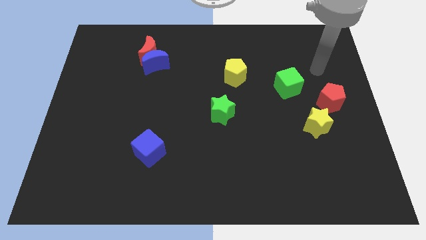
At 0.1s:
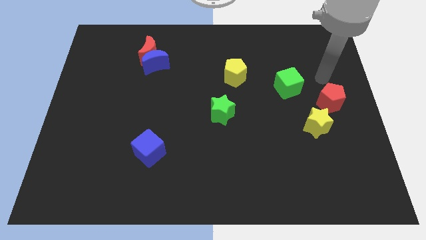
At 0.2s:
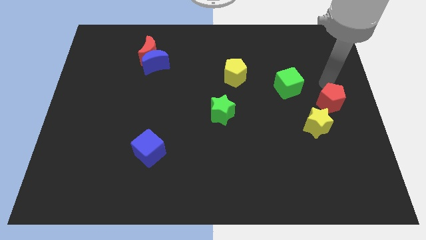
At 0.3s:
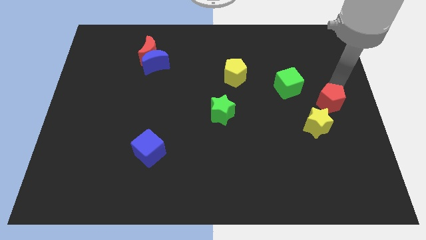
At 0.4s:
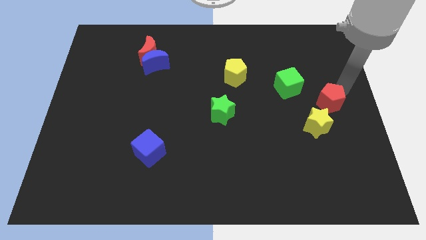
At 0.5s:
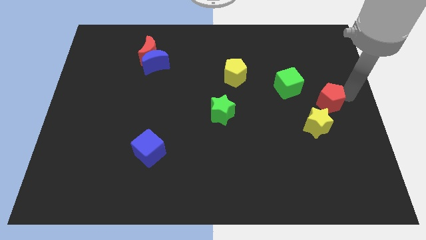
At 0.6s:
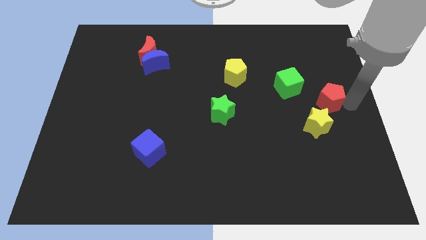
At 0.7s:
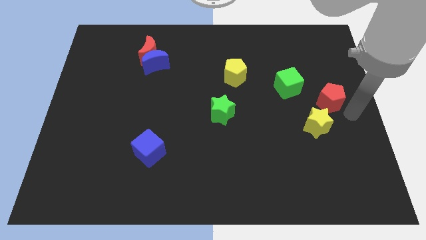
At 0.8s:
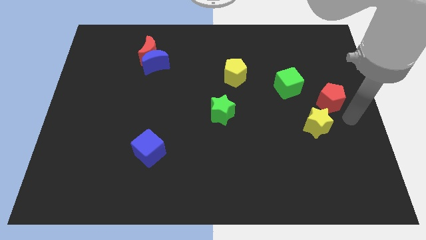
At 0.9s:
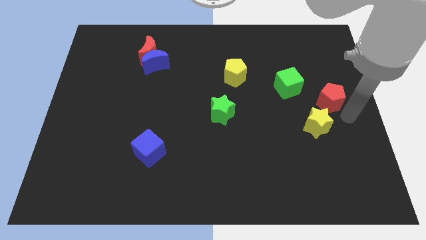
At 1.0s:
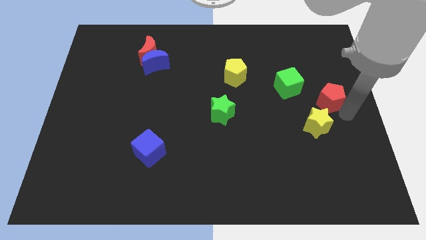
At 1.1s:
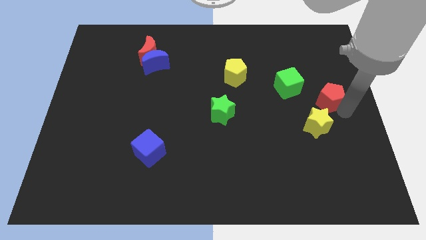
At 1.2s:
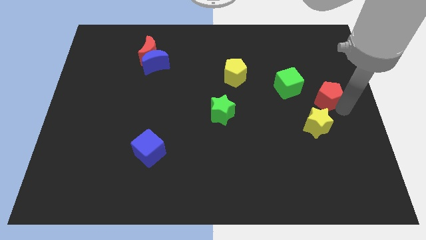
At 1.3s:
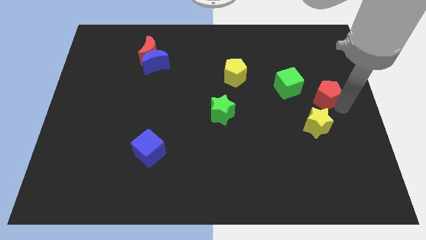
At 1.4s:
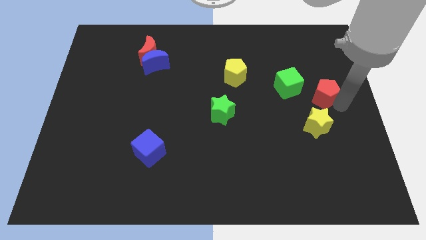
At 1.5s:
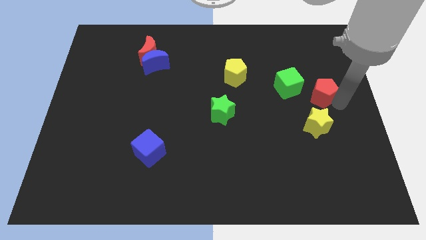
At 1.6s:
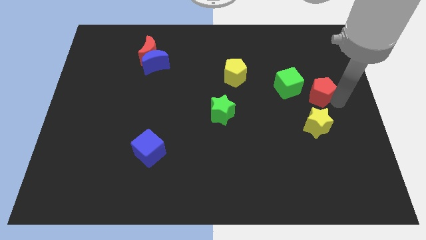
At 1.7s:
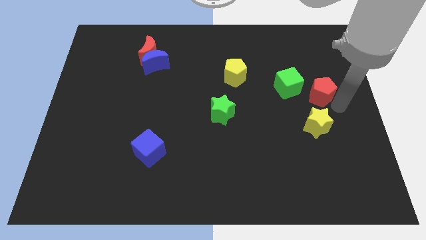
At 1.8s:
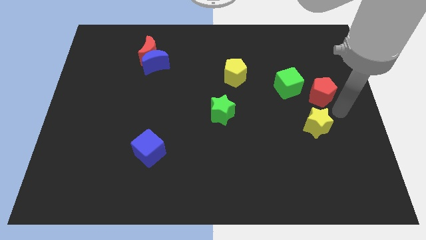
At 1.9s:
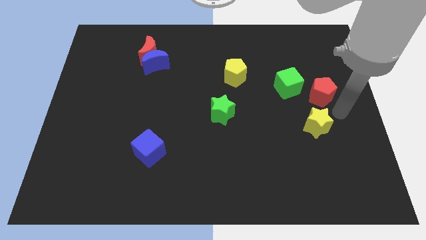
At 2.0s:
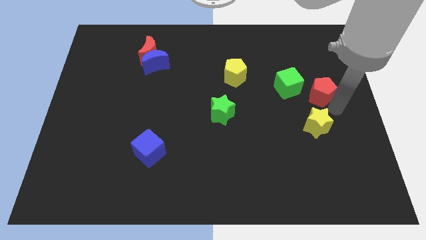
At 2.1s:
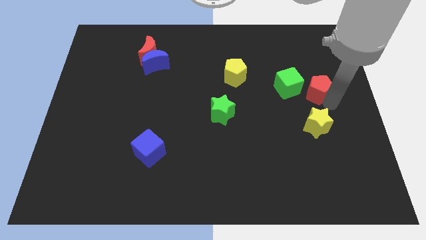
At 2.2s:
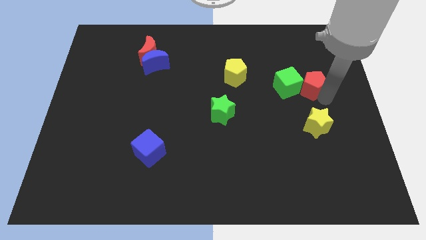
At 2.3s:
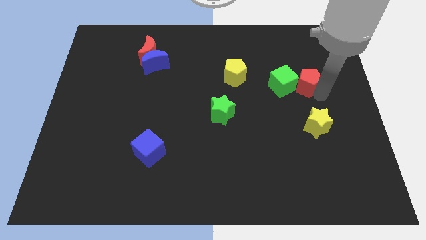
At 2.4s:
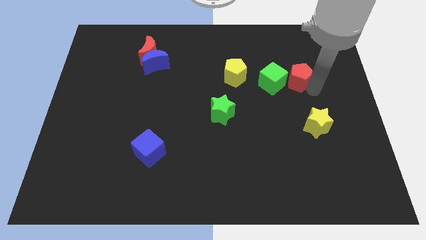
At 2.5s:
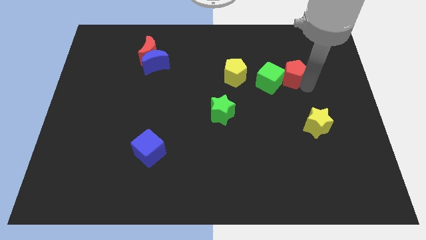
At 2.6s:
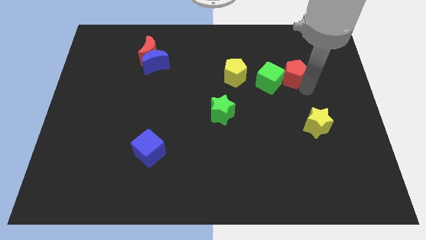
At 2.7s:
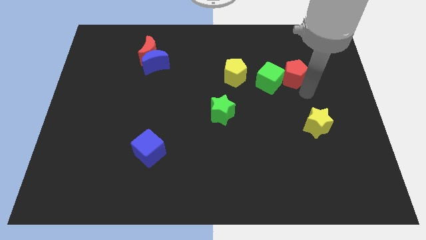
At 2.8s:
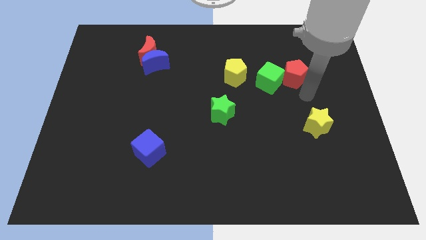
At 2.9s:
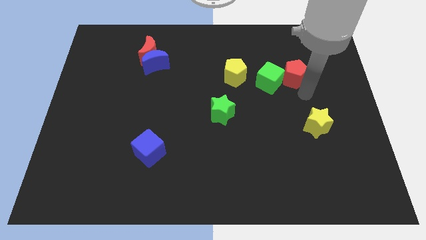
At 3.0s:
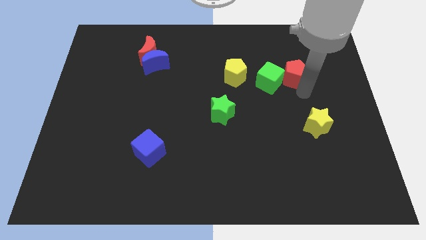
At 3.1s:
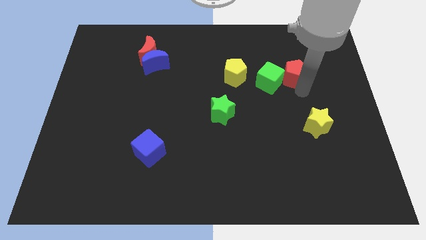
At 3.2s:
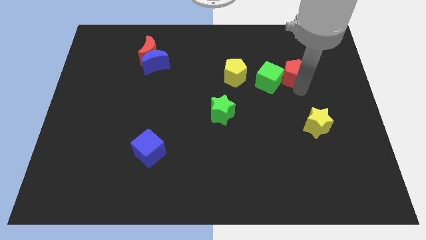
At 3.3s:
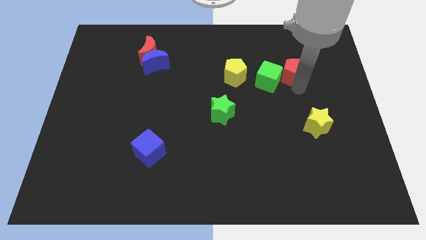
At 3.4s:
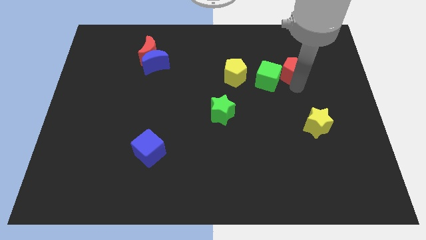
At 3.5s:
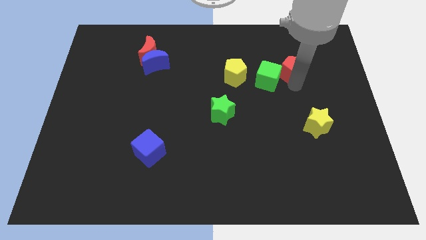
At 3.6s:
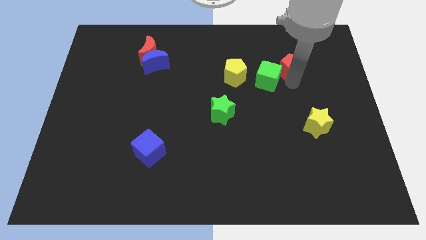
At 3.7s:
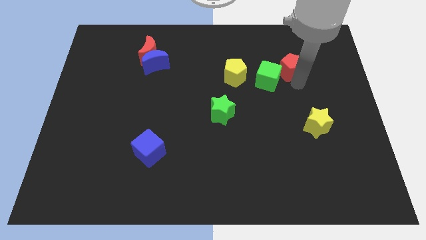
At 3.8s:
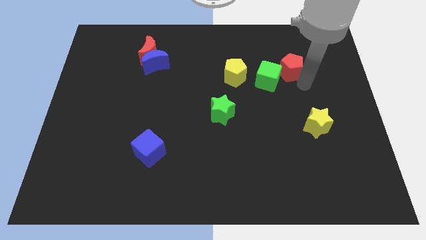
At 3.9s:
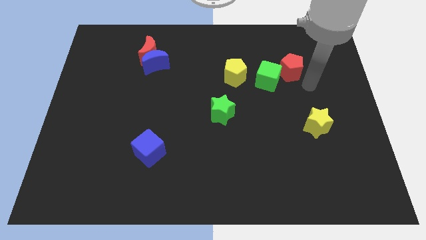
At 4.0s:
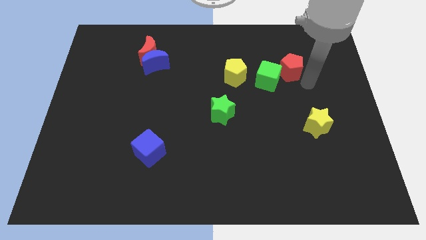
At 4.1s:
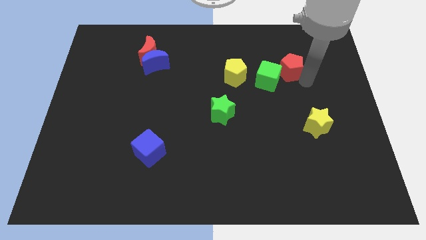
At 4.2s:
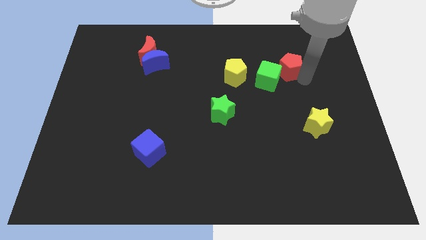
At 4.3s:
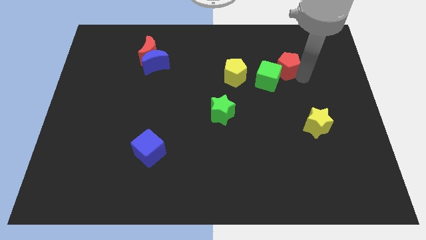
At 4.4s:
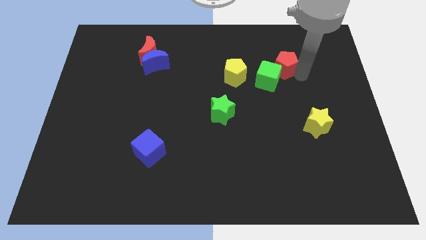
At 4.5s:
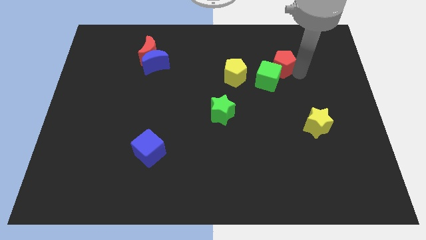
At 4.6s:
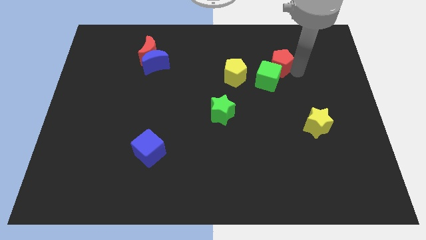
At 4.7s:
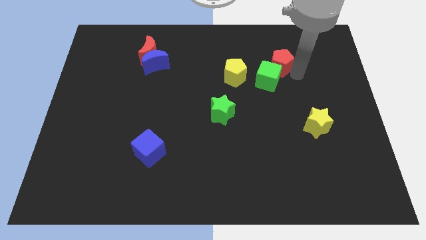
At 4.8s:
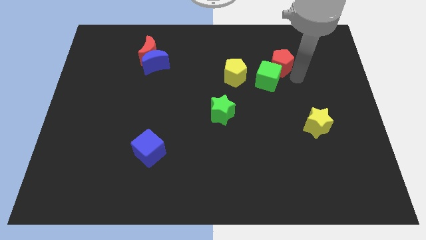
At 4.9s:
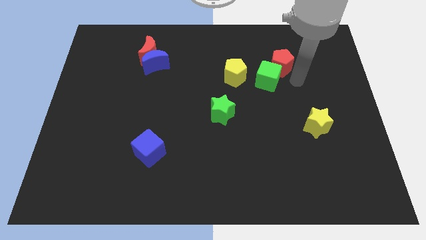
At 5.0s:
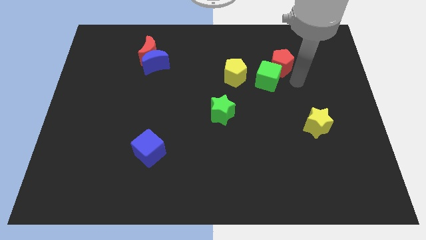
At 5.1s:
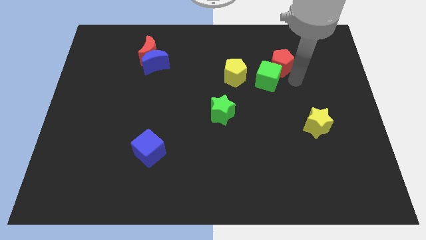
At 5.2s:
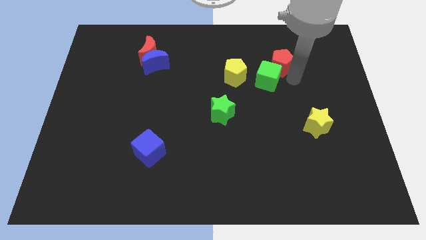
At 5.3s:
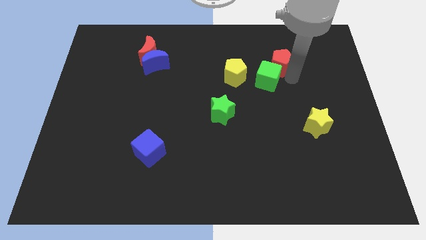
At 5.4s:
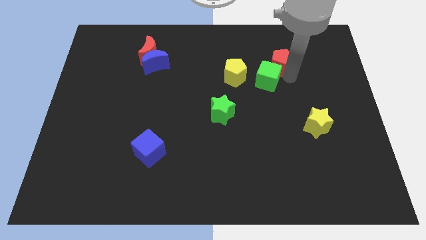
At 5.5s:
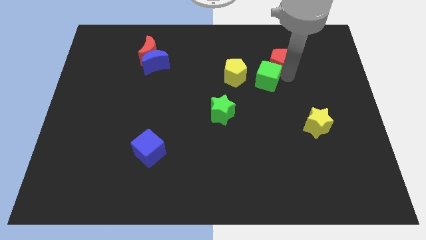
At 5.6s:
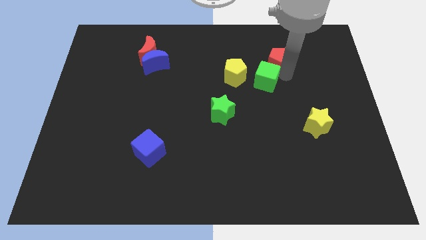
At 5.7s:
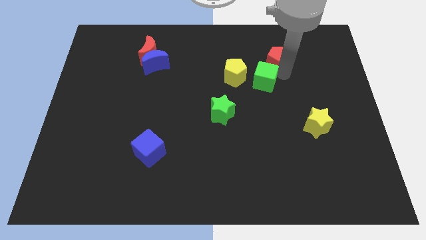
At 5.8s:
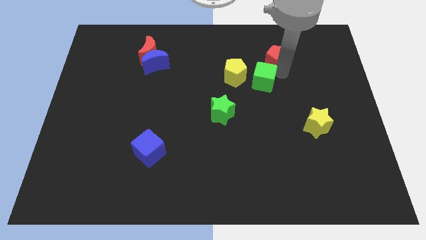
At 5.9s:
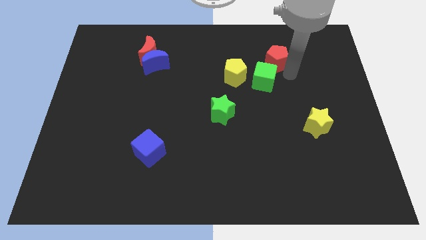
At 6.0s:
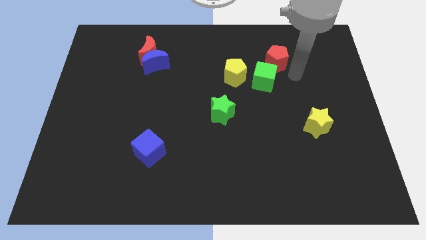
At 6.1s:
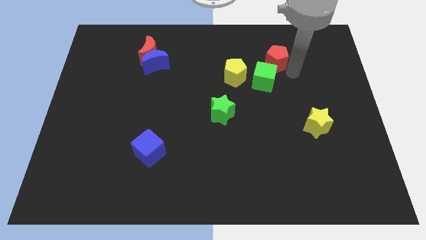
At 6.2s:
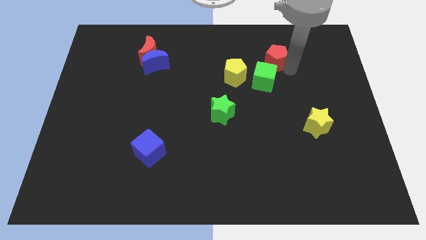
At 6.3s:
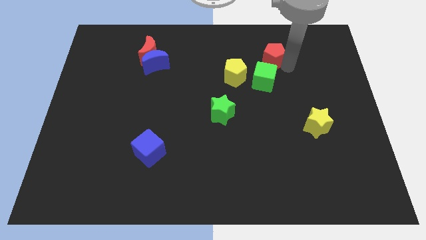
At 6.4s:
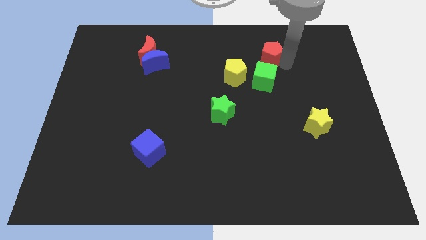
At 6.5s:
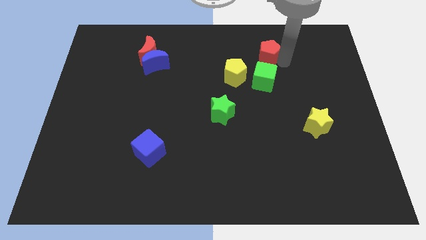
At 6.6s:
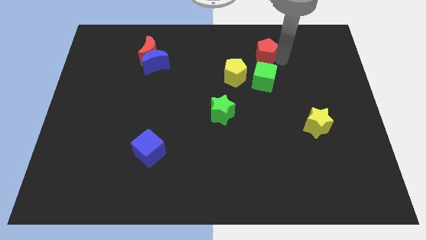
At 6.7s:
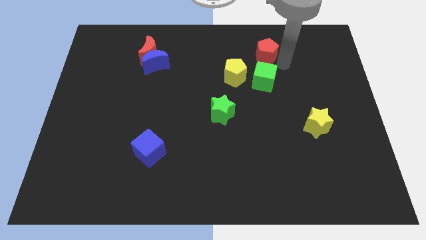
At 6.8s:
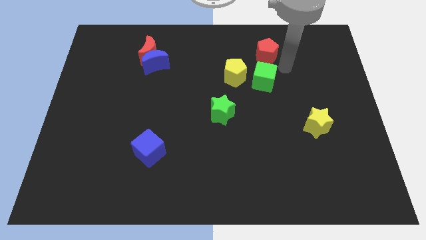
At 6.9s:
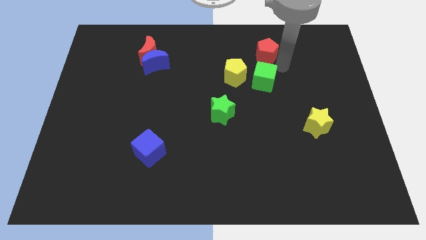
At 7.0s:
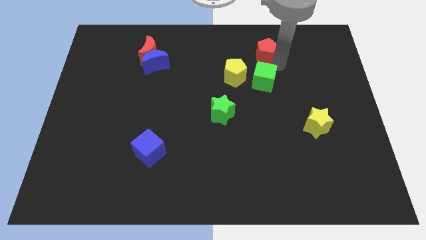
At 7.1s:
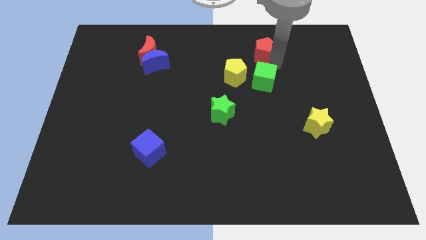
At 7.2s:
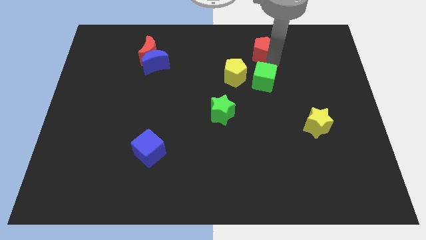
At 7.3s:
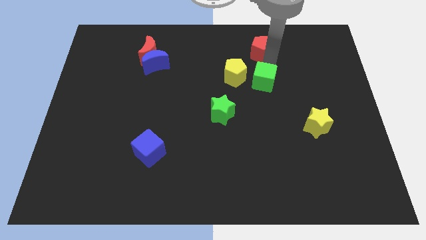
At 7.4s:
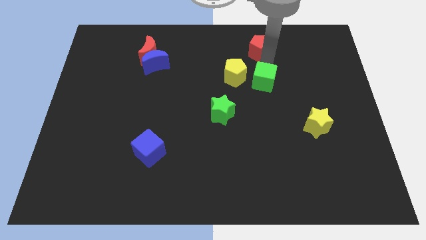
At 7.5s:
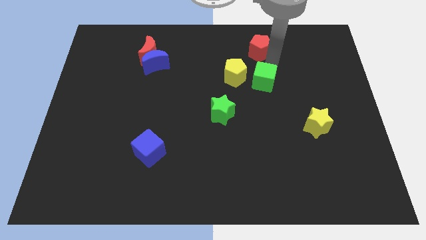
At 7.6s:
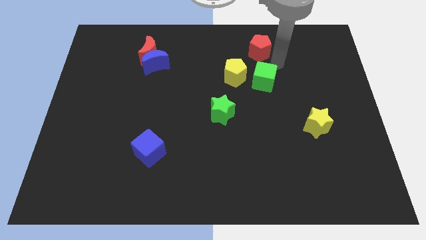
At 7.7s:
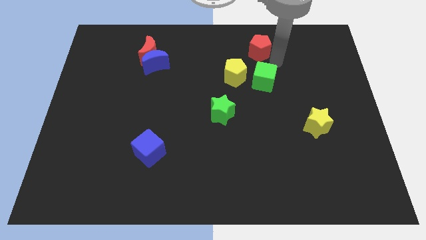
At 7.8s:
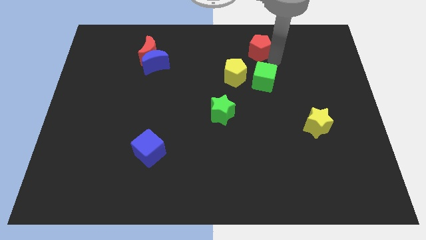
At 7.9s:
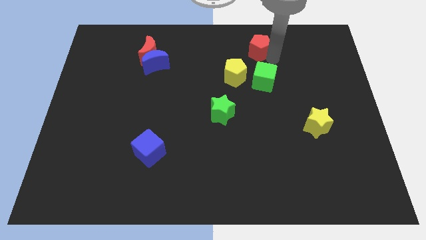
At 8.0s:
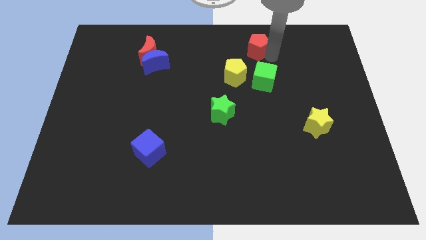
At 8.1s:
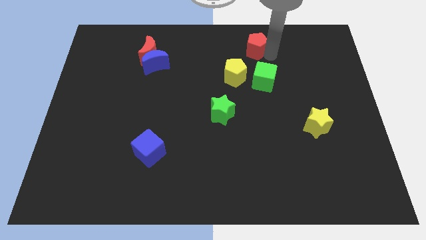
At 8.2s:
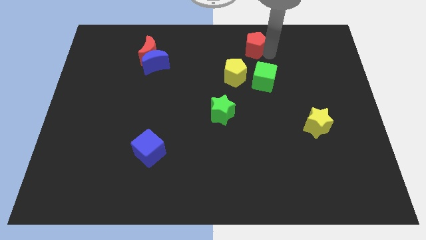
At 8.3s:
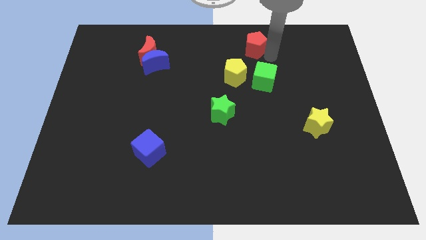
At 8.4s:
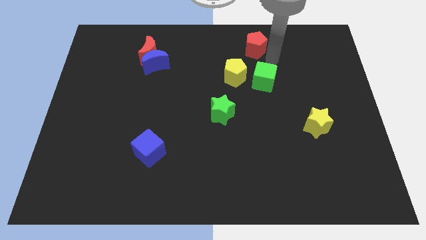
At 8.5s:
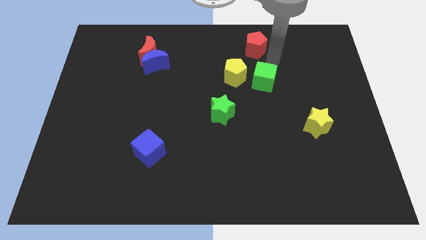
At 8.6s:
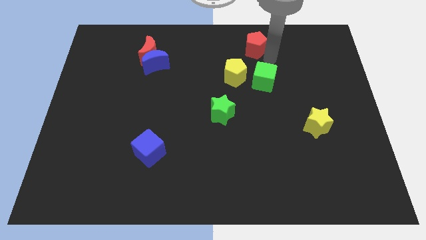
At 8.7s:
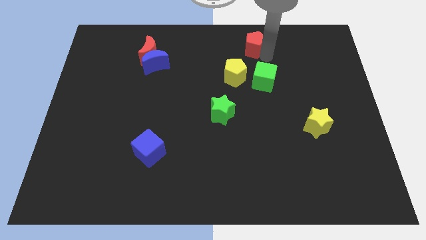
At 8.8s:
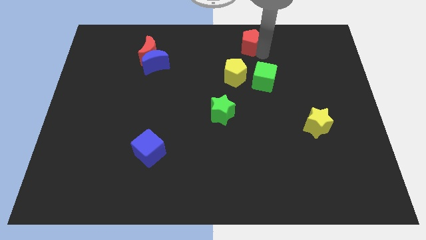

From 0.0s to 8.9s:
put the red pentagon to the top
